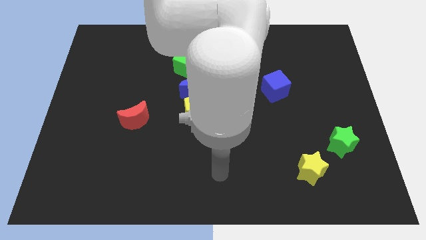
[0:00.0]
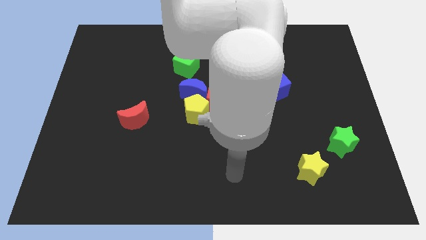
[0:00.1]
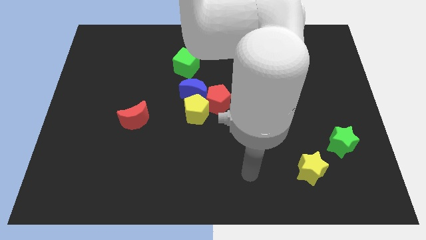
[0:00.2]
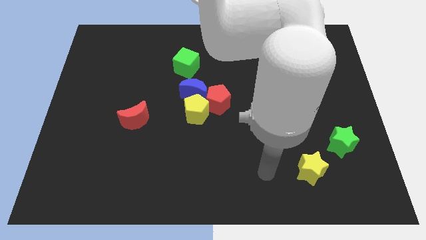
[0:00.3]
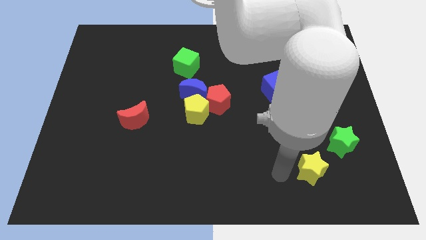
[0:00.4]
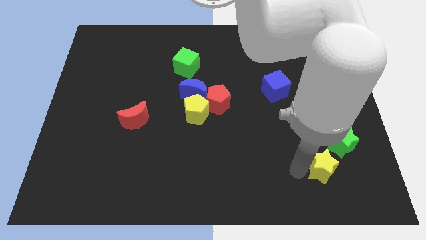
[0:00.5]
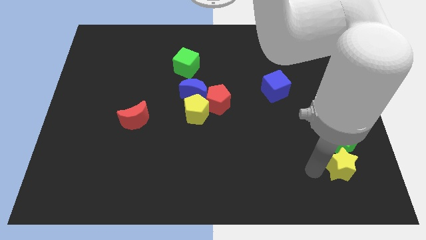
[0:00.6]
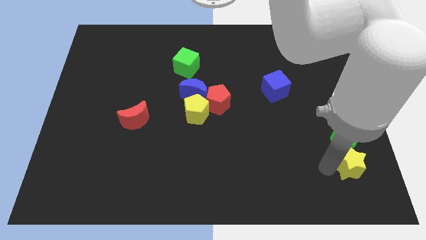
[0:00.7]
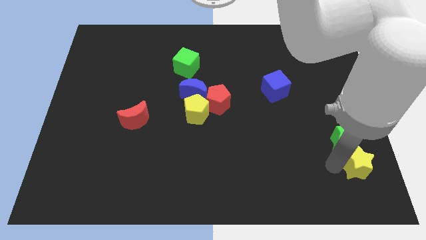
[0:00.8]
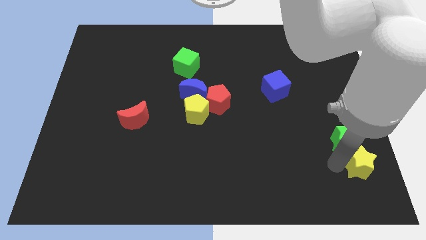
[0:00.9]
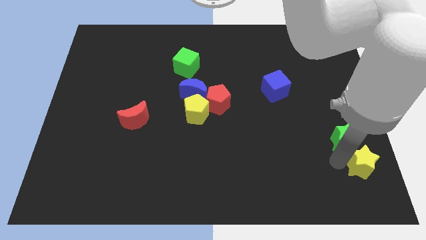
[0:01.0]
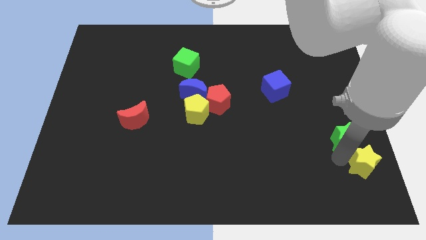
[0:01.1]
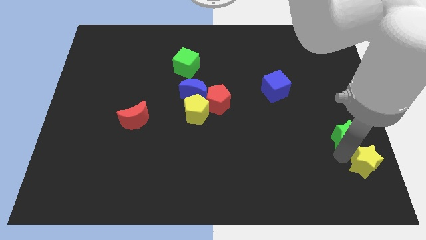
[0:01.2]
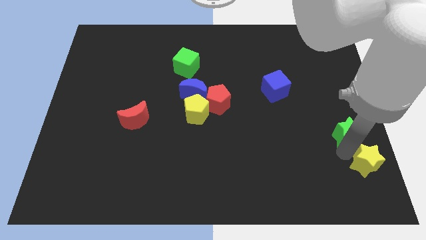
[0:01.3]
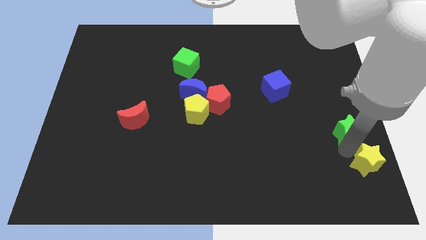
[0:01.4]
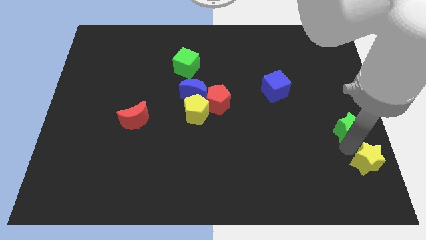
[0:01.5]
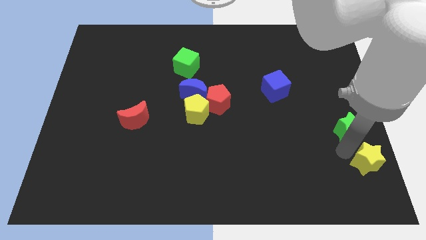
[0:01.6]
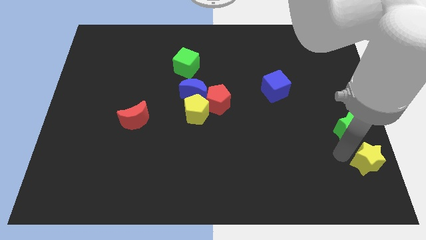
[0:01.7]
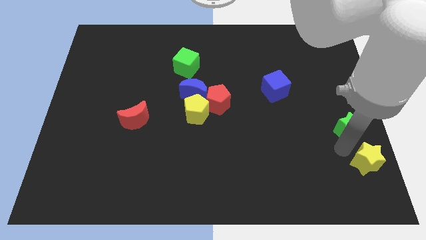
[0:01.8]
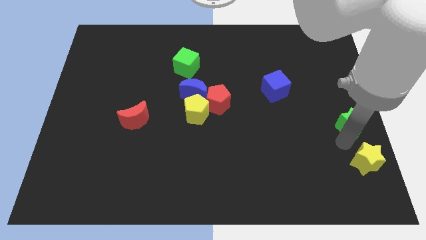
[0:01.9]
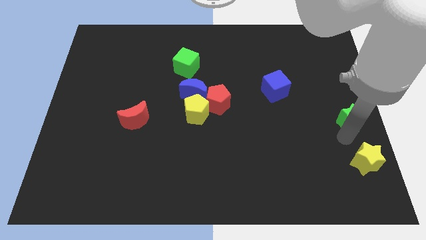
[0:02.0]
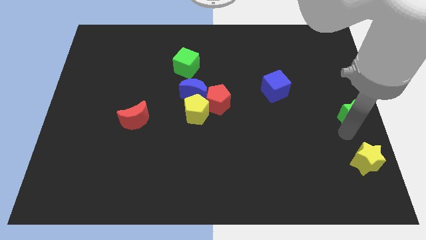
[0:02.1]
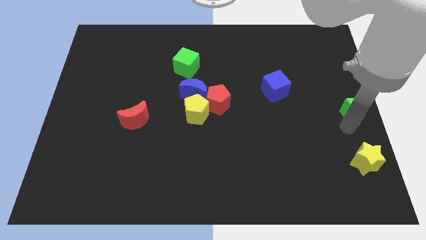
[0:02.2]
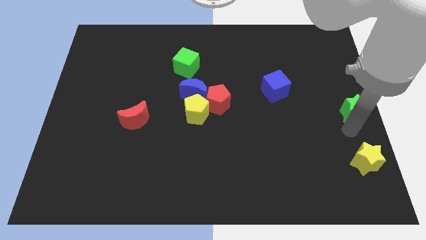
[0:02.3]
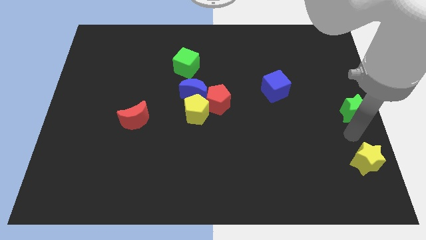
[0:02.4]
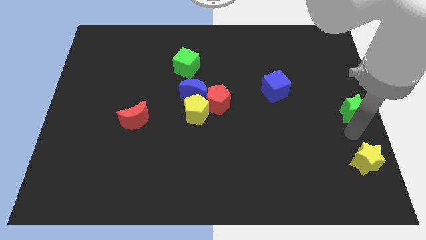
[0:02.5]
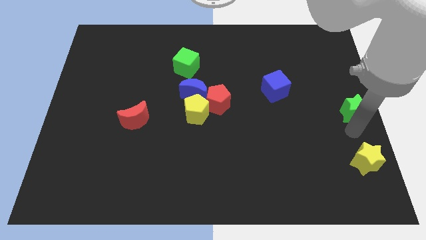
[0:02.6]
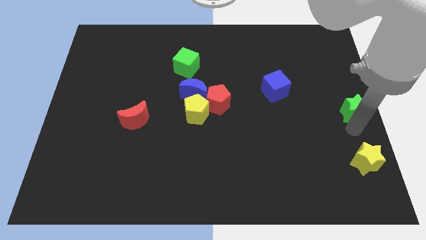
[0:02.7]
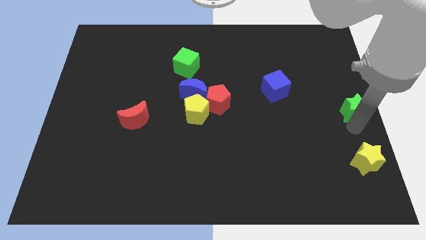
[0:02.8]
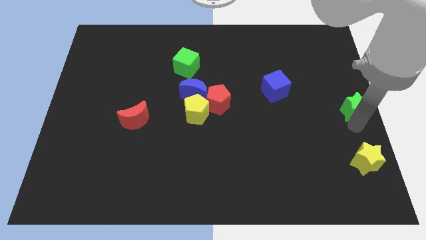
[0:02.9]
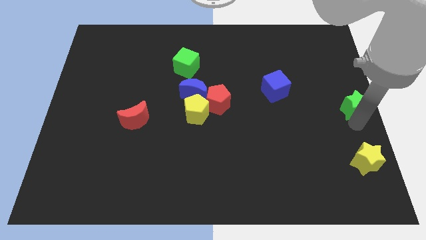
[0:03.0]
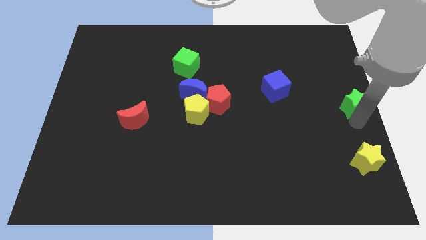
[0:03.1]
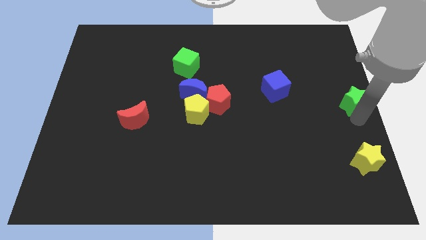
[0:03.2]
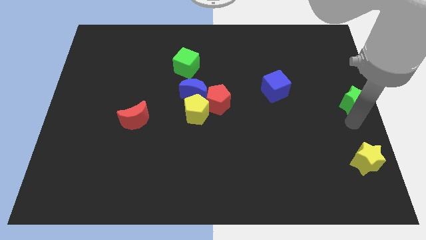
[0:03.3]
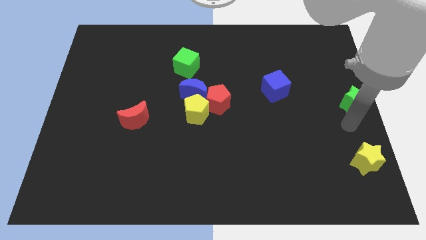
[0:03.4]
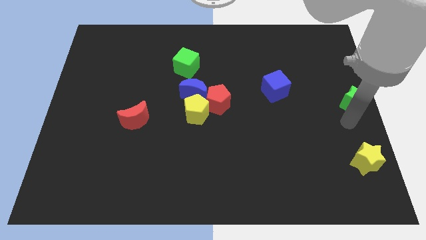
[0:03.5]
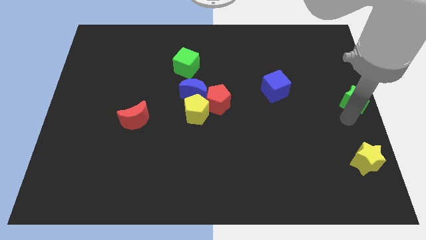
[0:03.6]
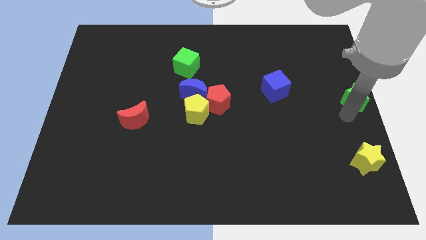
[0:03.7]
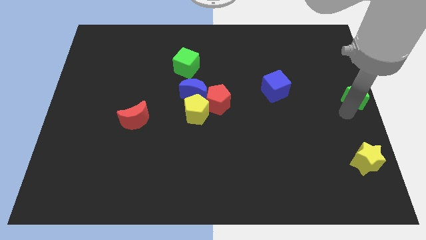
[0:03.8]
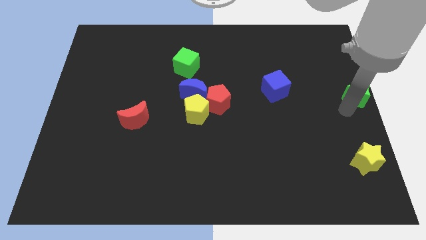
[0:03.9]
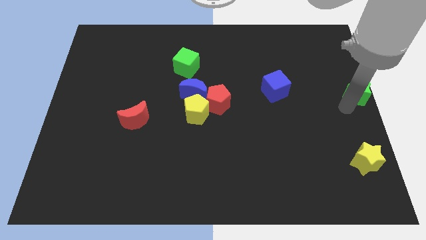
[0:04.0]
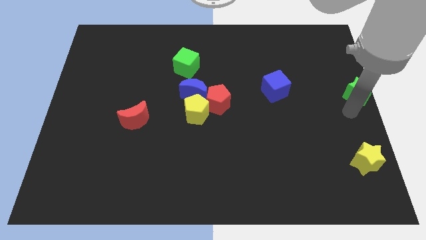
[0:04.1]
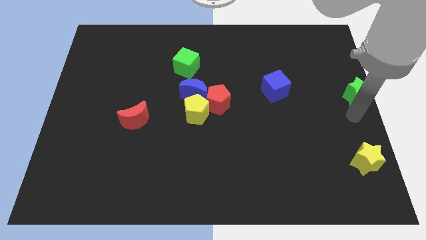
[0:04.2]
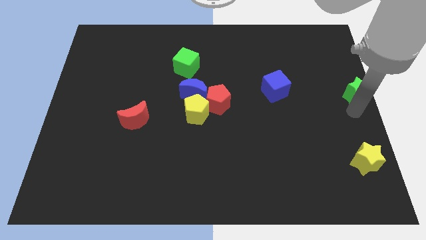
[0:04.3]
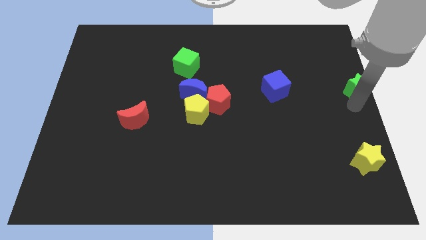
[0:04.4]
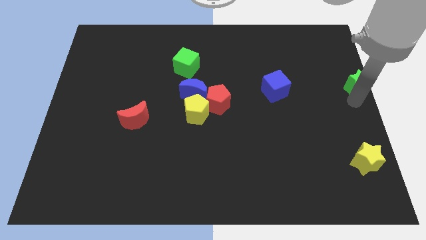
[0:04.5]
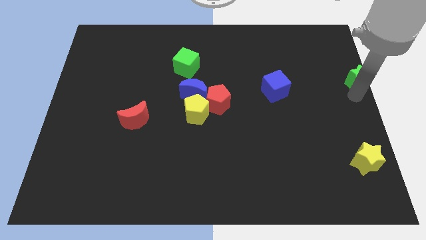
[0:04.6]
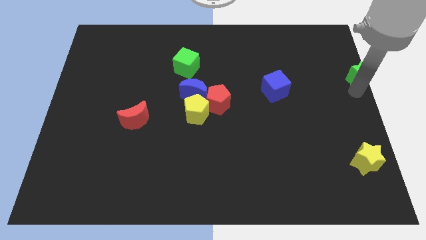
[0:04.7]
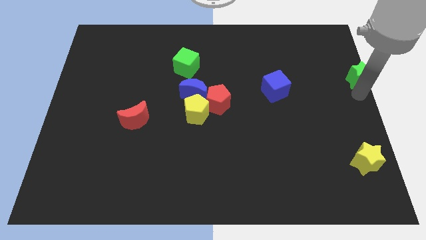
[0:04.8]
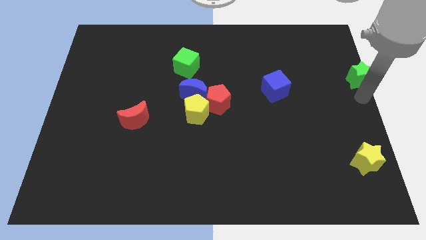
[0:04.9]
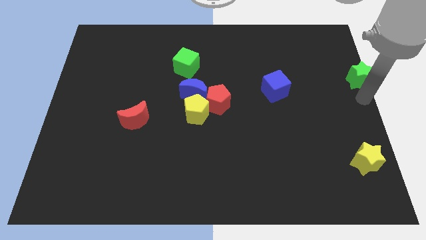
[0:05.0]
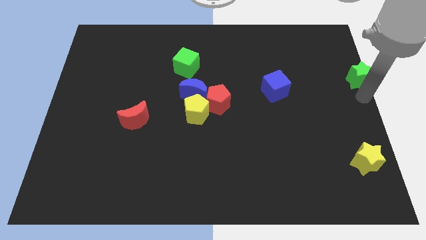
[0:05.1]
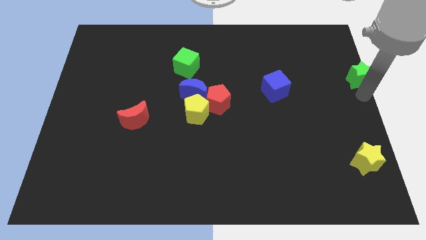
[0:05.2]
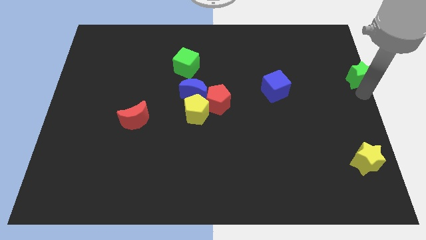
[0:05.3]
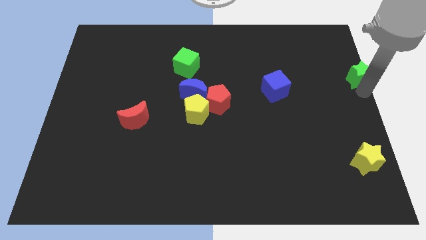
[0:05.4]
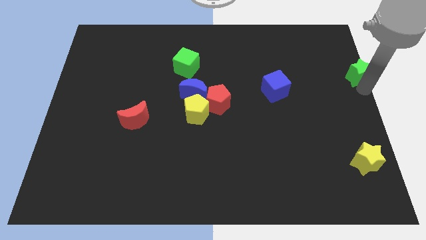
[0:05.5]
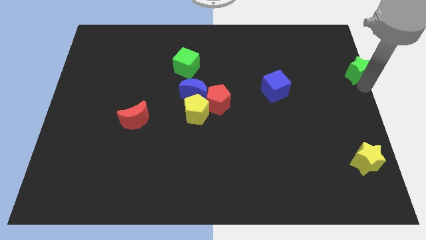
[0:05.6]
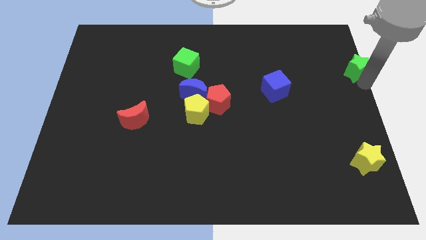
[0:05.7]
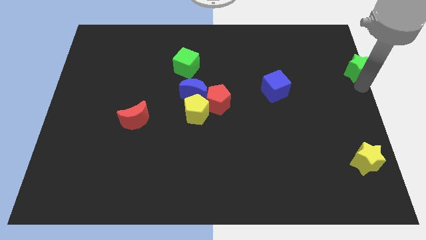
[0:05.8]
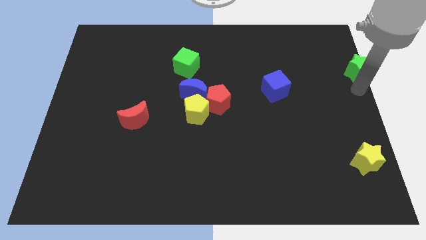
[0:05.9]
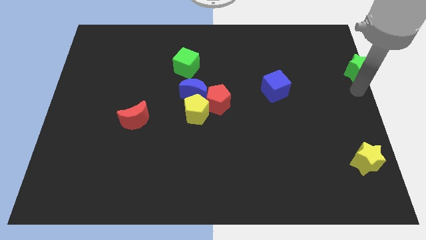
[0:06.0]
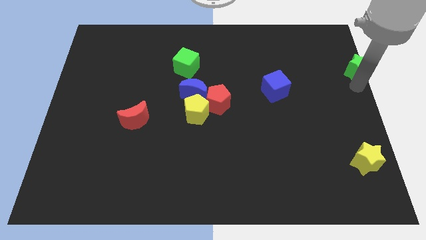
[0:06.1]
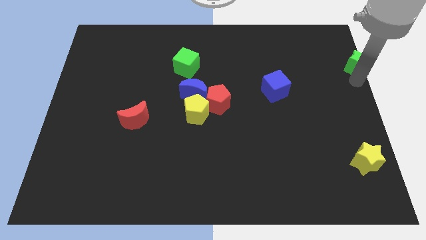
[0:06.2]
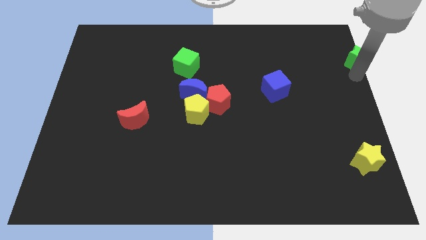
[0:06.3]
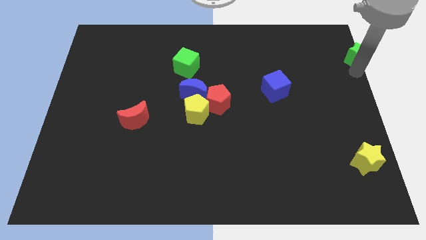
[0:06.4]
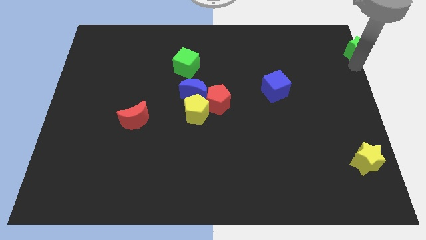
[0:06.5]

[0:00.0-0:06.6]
slide the green star to the top right corner
